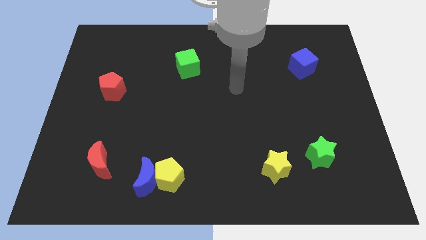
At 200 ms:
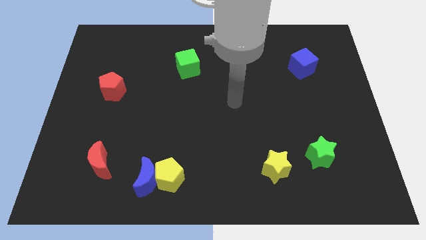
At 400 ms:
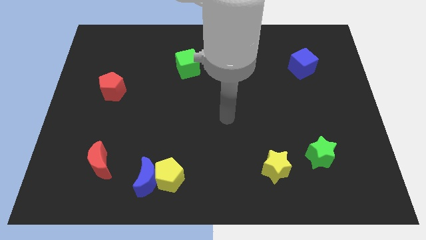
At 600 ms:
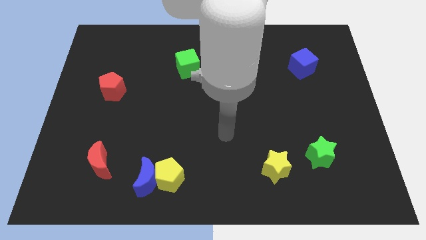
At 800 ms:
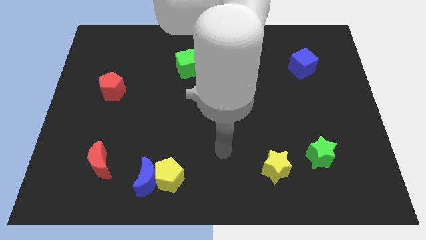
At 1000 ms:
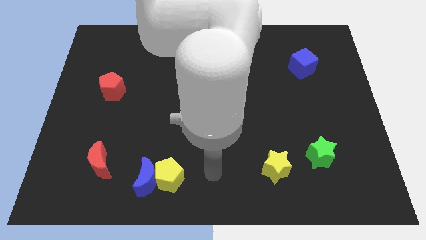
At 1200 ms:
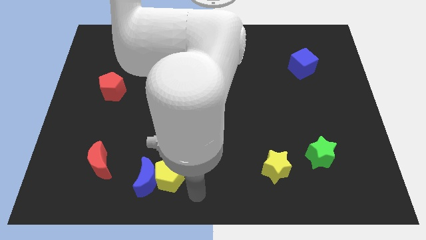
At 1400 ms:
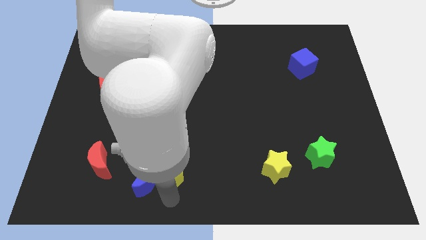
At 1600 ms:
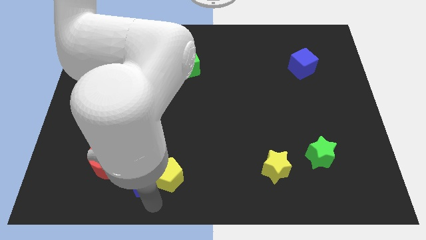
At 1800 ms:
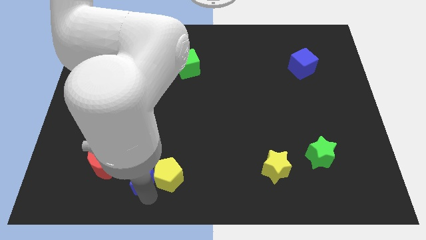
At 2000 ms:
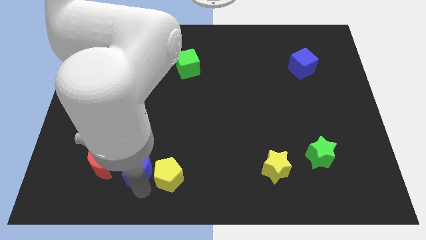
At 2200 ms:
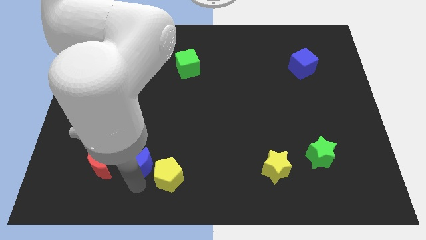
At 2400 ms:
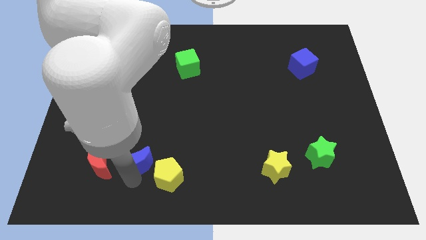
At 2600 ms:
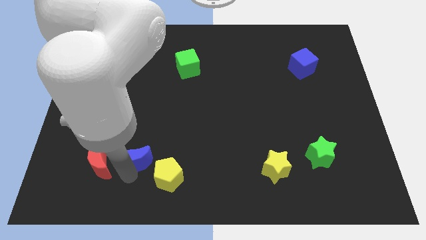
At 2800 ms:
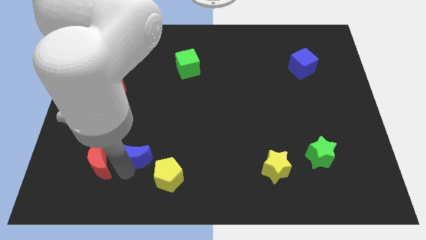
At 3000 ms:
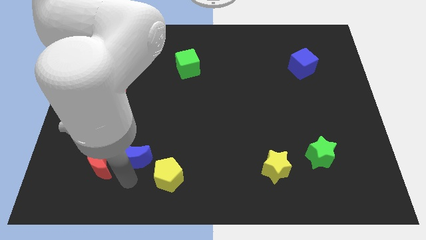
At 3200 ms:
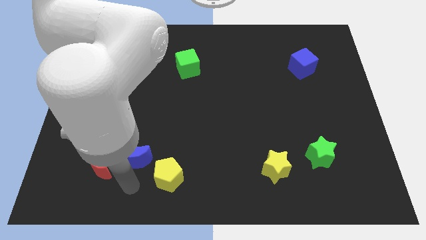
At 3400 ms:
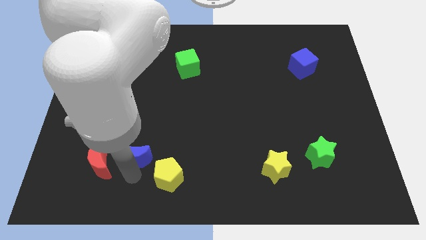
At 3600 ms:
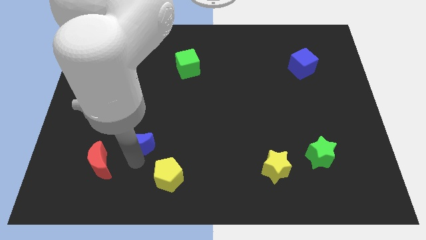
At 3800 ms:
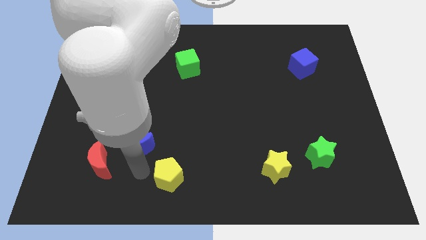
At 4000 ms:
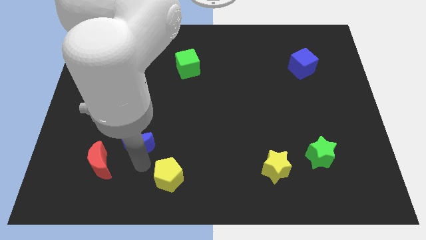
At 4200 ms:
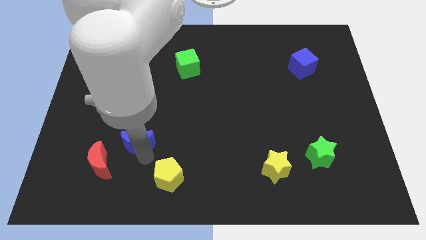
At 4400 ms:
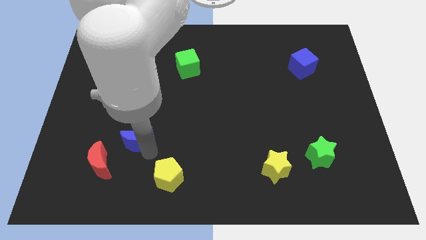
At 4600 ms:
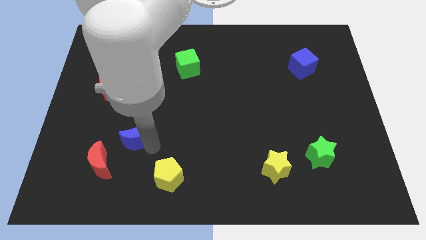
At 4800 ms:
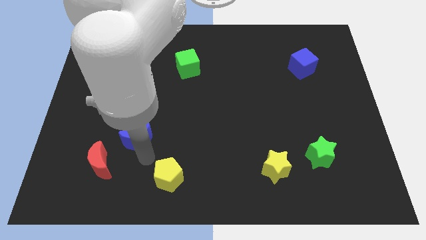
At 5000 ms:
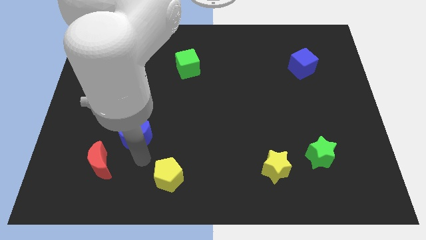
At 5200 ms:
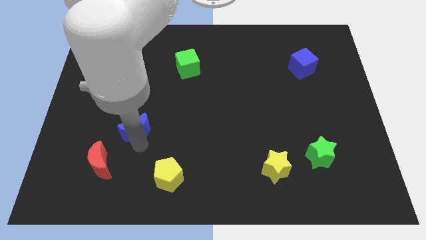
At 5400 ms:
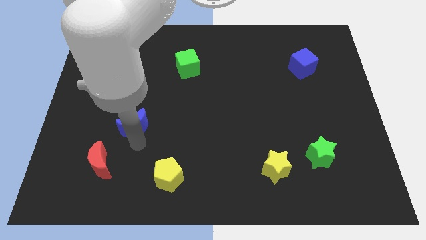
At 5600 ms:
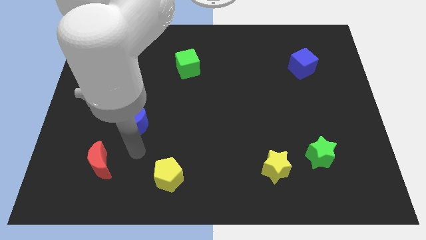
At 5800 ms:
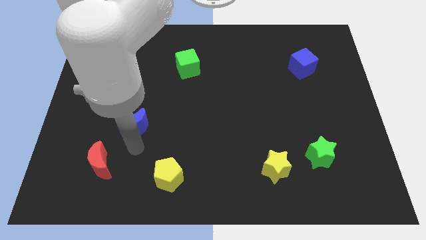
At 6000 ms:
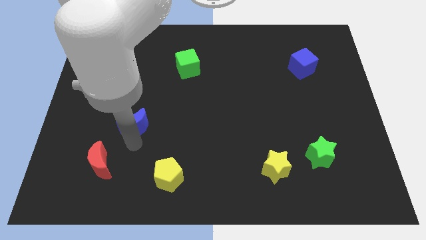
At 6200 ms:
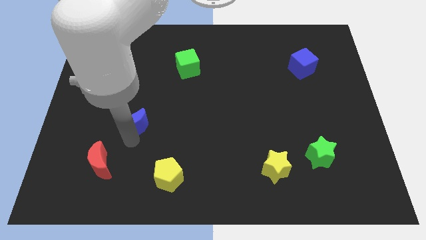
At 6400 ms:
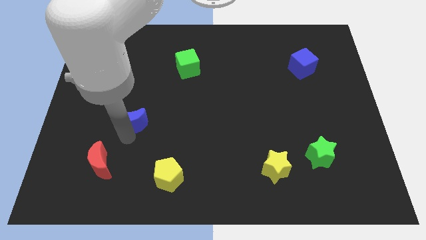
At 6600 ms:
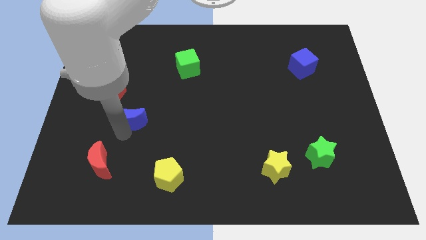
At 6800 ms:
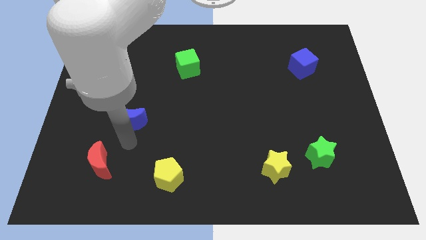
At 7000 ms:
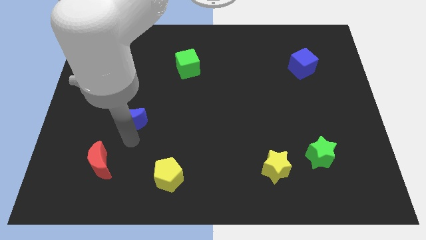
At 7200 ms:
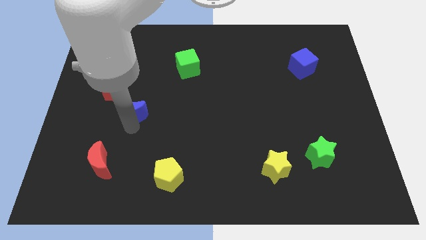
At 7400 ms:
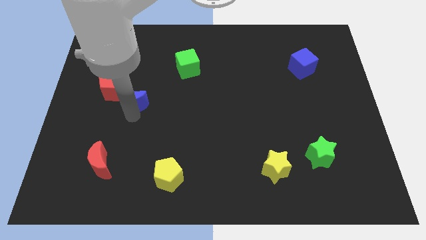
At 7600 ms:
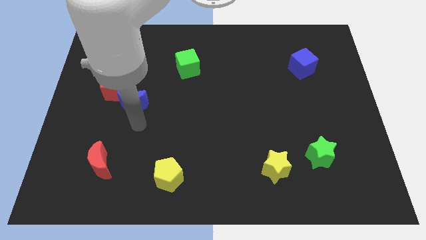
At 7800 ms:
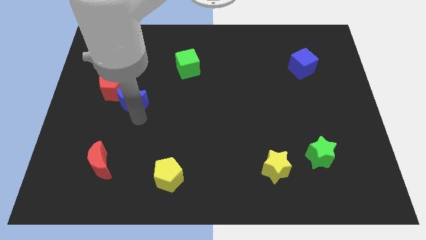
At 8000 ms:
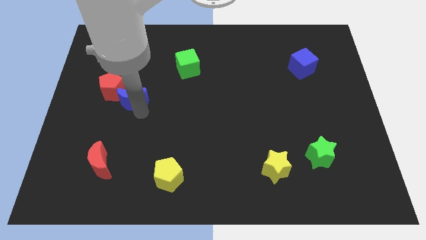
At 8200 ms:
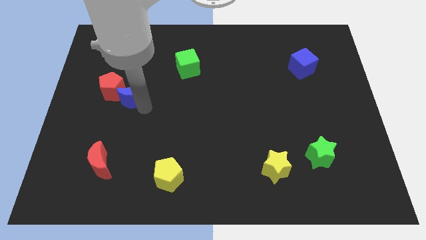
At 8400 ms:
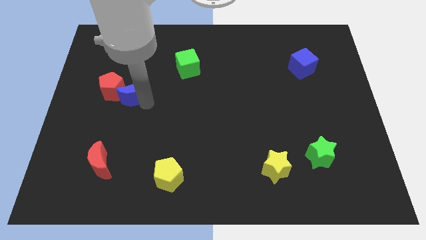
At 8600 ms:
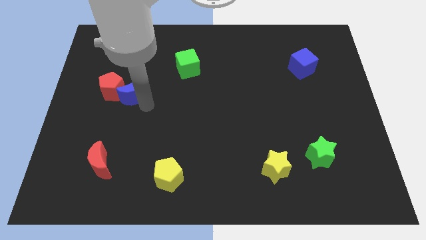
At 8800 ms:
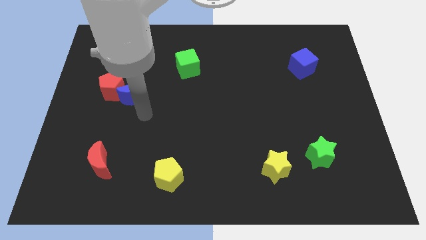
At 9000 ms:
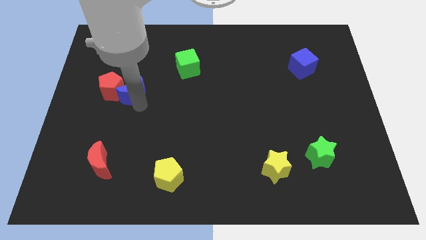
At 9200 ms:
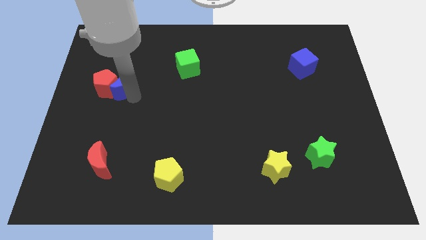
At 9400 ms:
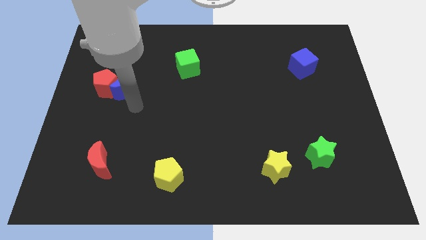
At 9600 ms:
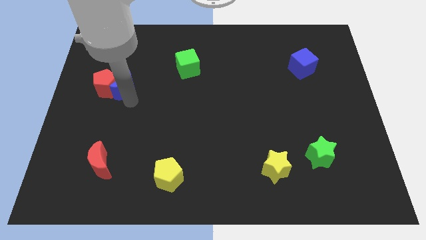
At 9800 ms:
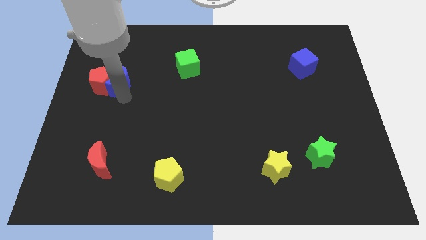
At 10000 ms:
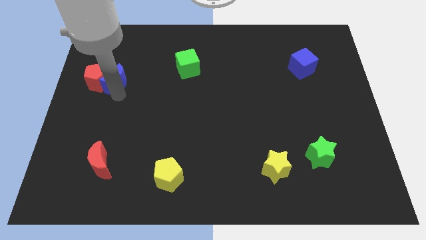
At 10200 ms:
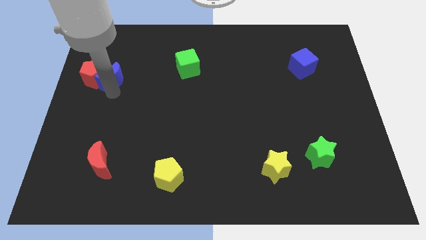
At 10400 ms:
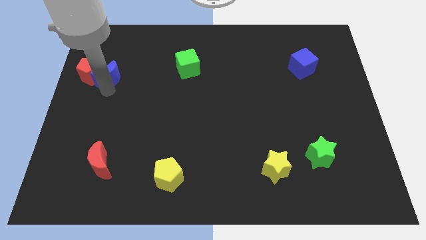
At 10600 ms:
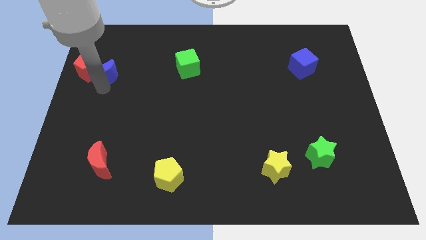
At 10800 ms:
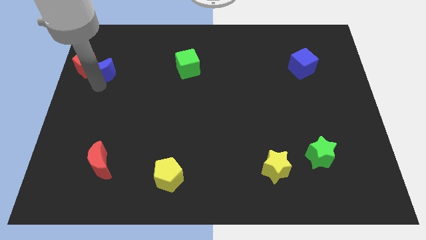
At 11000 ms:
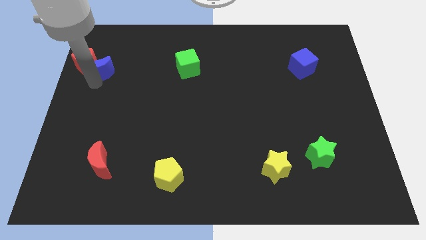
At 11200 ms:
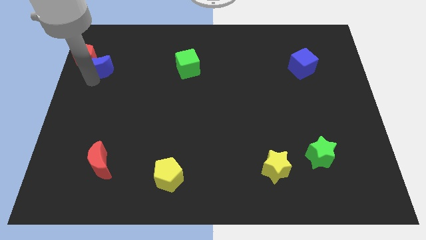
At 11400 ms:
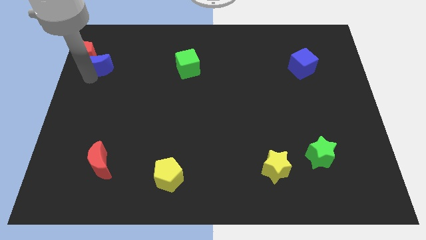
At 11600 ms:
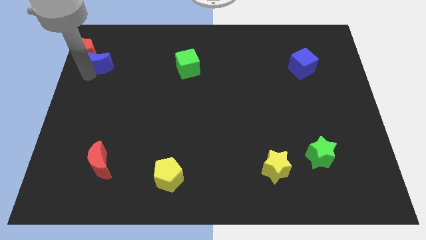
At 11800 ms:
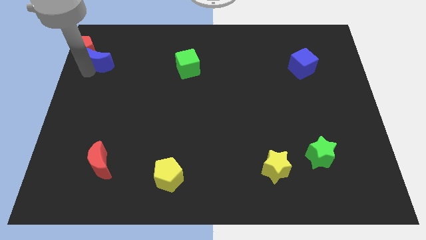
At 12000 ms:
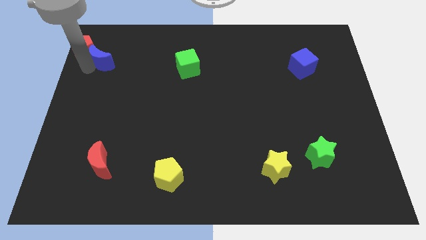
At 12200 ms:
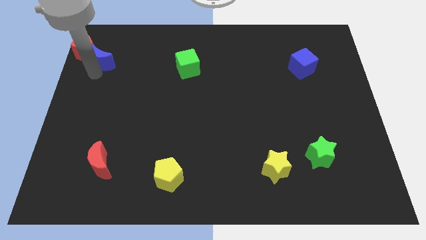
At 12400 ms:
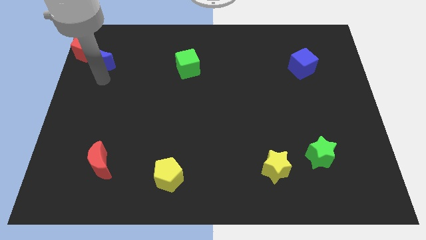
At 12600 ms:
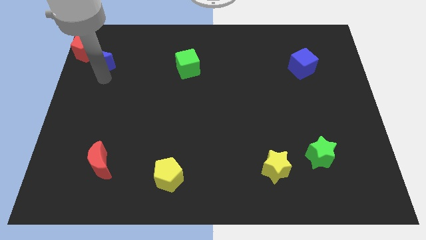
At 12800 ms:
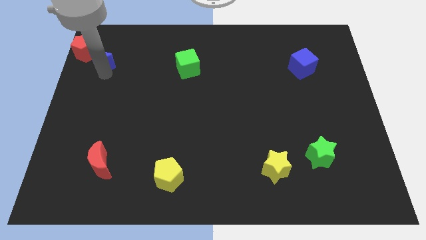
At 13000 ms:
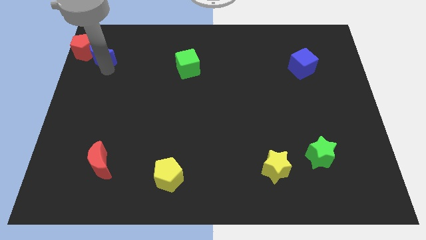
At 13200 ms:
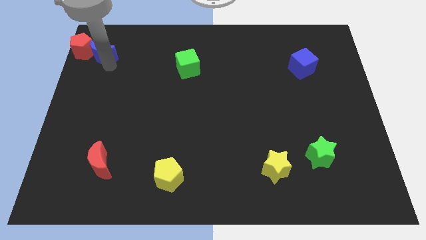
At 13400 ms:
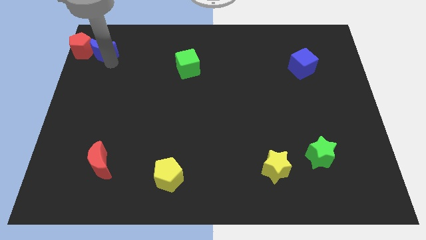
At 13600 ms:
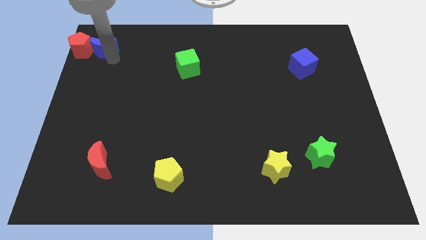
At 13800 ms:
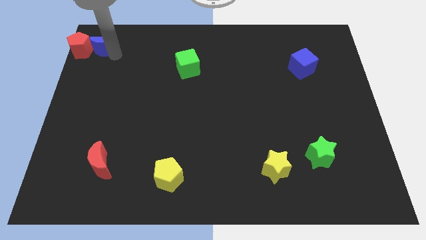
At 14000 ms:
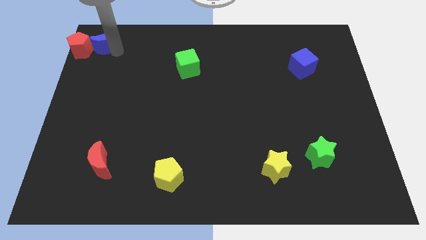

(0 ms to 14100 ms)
slide the blue moon to the top left of the board
